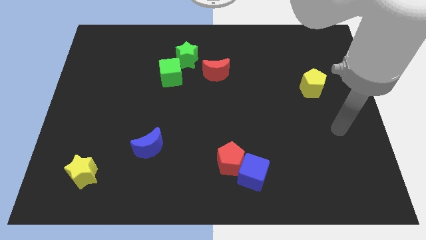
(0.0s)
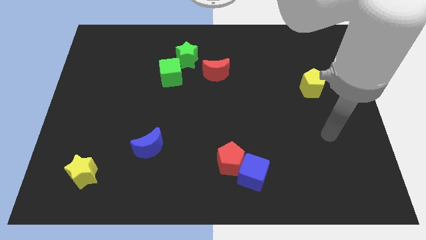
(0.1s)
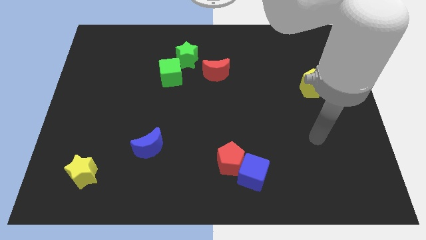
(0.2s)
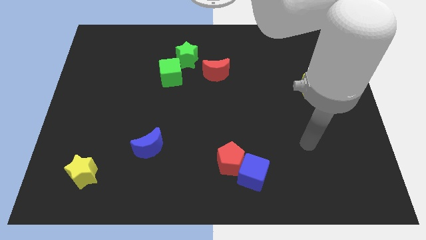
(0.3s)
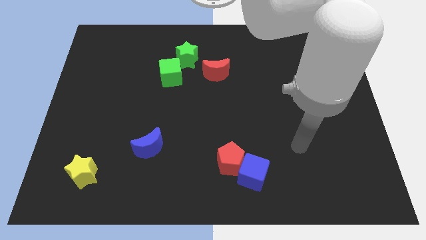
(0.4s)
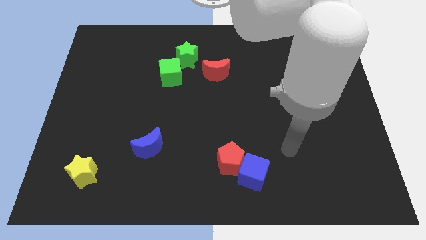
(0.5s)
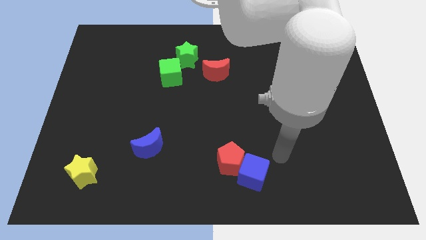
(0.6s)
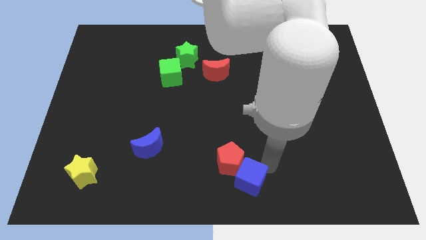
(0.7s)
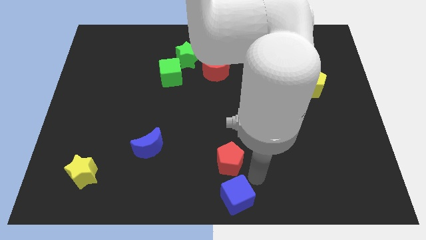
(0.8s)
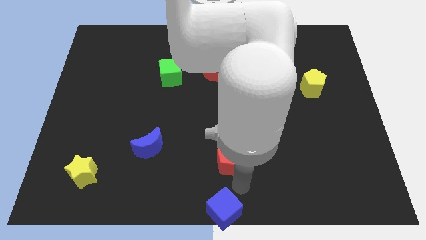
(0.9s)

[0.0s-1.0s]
separate the red pentagon from the blue cube

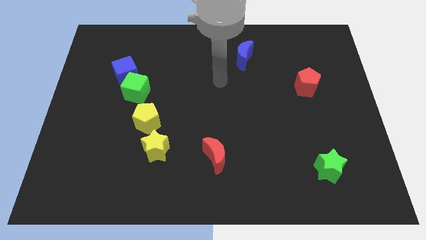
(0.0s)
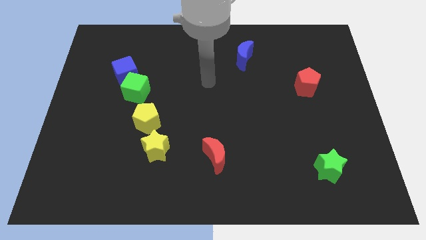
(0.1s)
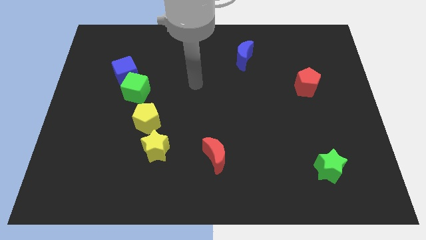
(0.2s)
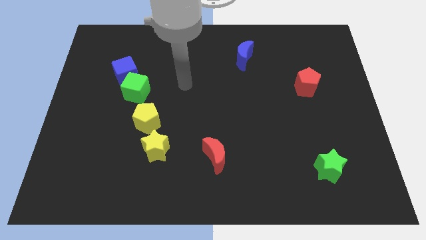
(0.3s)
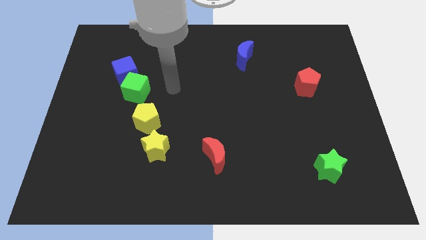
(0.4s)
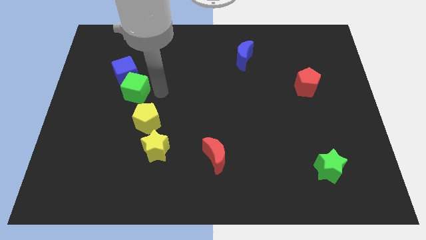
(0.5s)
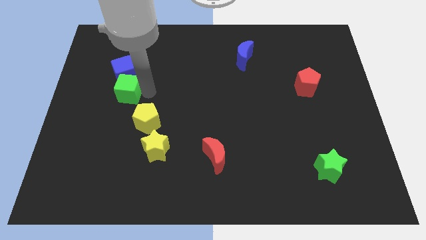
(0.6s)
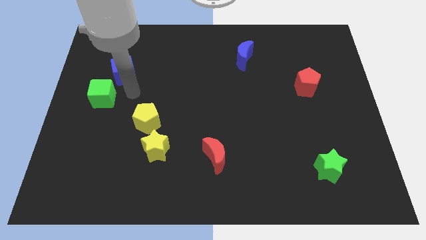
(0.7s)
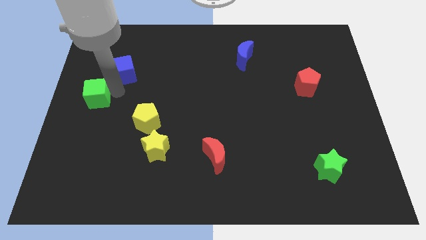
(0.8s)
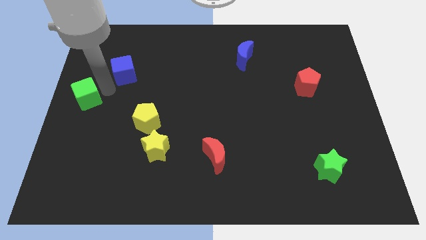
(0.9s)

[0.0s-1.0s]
separate the blue cube from the green cube

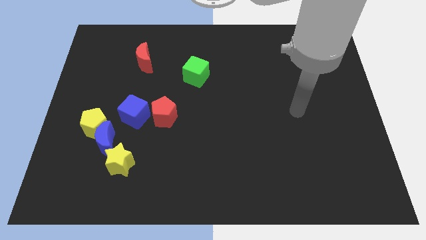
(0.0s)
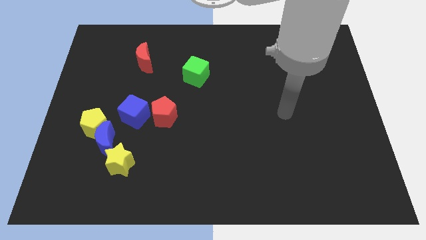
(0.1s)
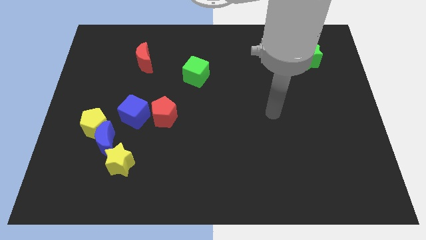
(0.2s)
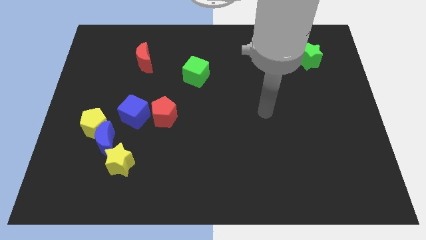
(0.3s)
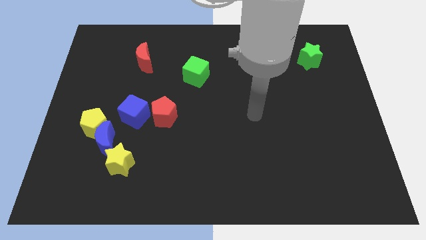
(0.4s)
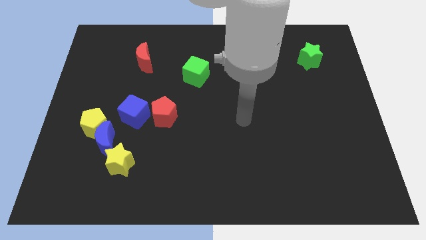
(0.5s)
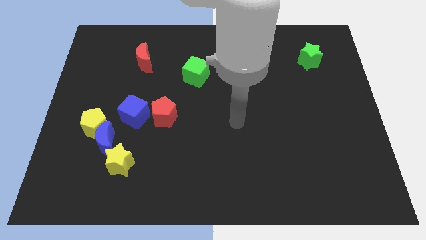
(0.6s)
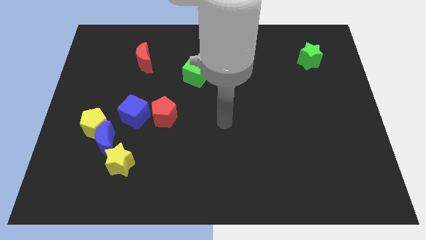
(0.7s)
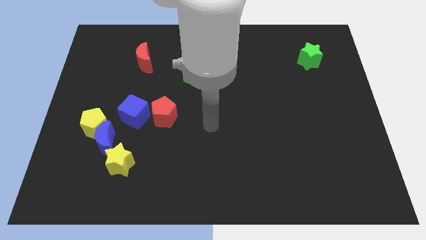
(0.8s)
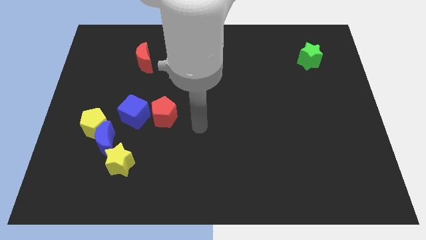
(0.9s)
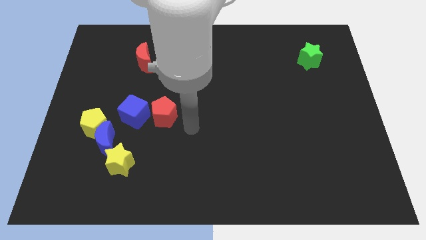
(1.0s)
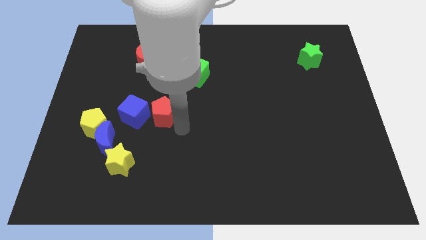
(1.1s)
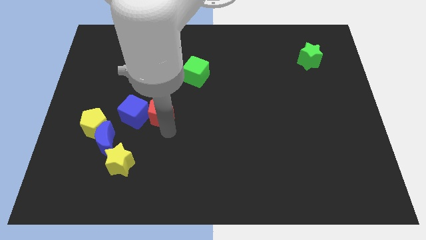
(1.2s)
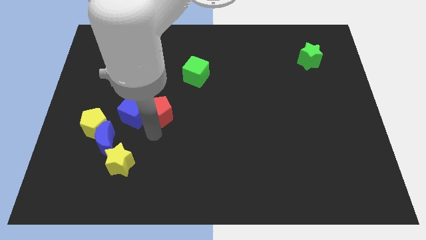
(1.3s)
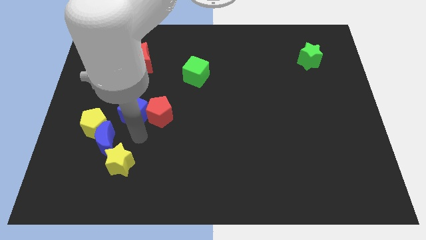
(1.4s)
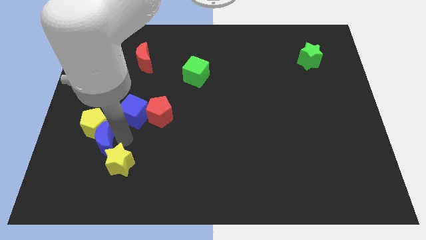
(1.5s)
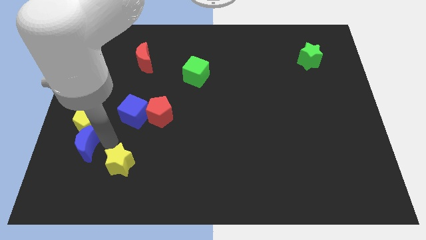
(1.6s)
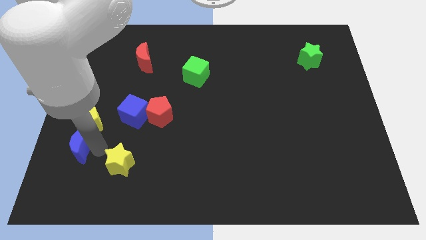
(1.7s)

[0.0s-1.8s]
move the yellow star away from the blue moon

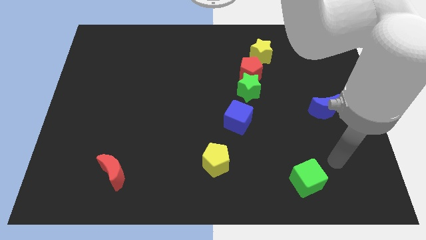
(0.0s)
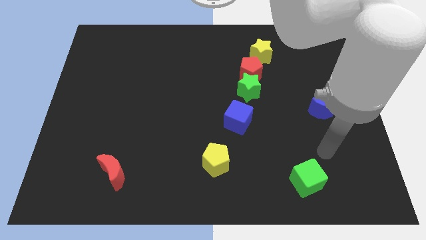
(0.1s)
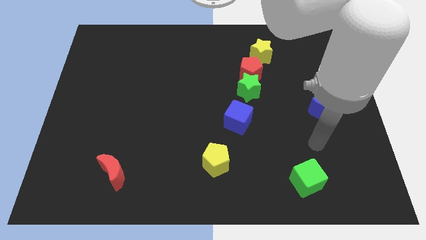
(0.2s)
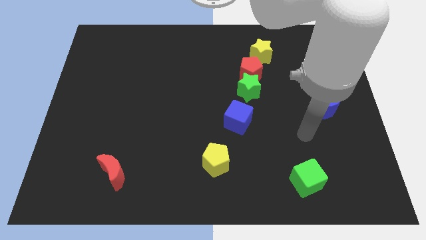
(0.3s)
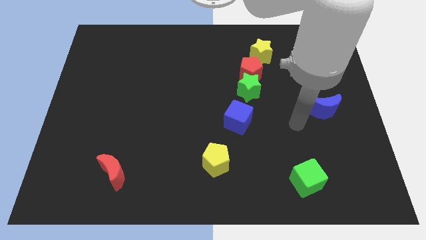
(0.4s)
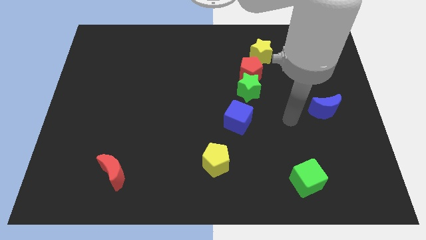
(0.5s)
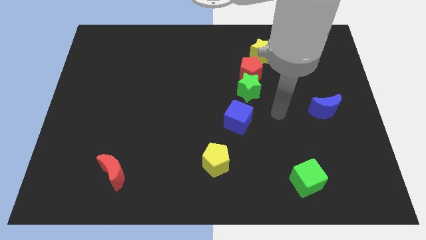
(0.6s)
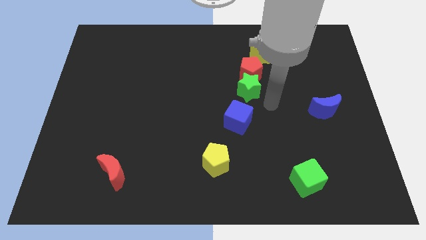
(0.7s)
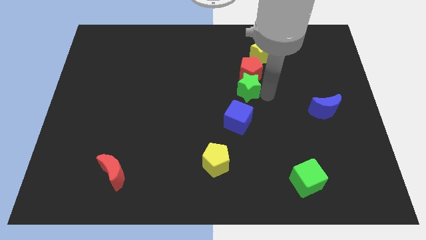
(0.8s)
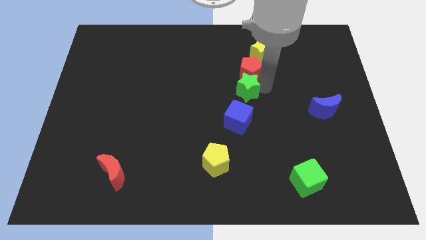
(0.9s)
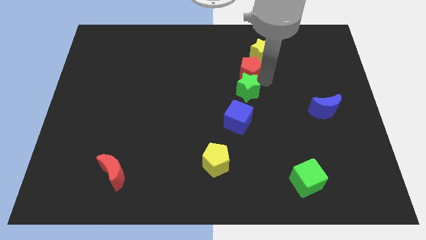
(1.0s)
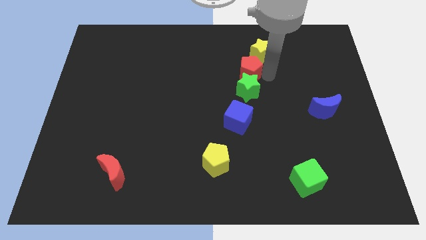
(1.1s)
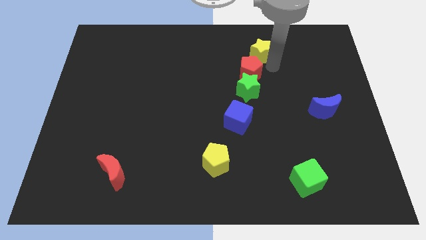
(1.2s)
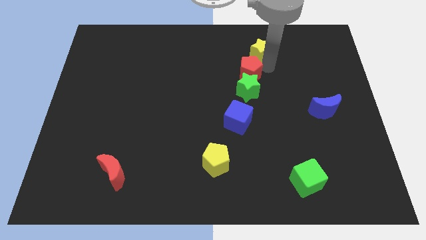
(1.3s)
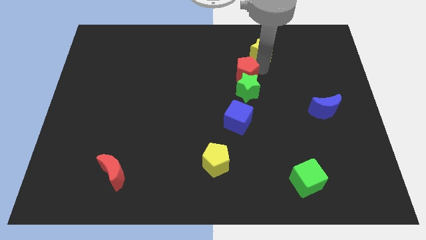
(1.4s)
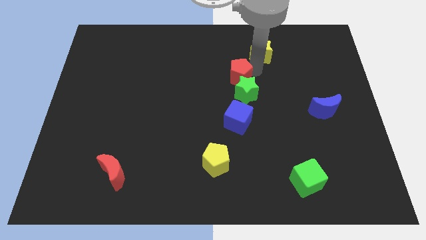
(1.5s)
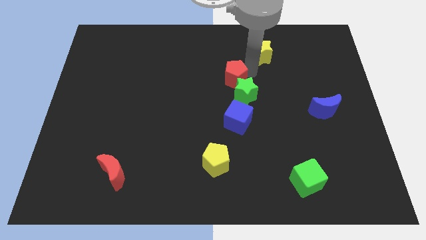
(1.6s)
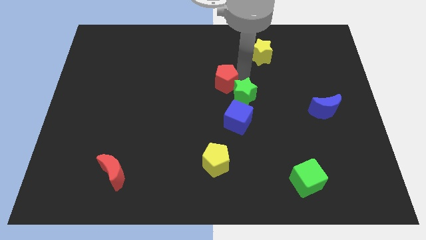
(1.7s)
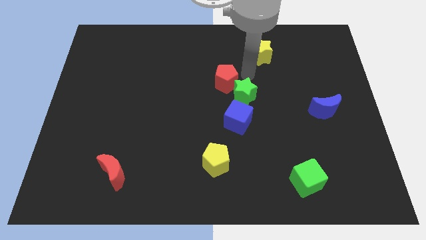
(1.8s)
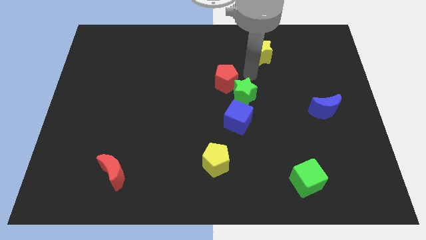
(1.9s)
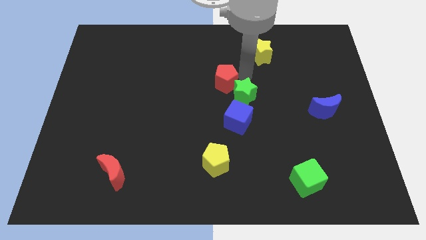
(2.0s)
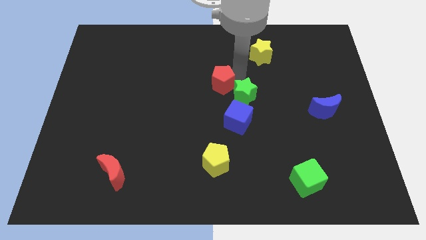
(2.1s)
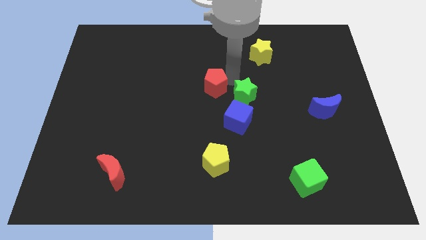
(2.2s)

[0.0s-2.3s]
move the red pentagon away from the green star and yellow star

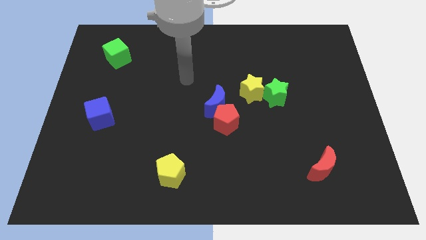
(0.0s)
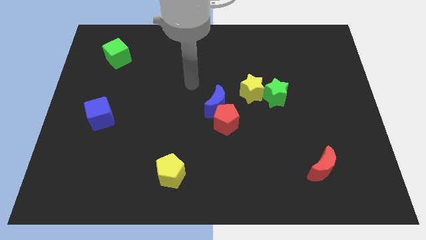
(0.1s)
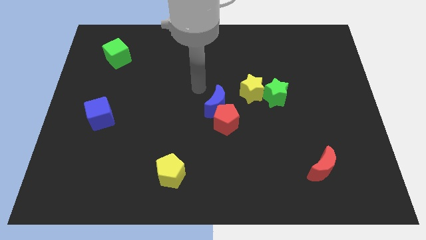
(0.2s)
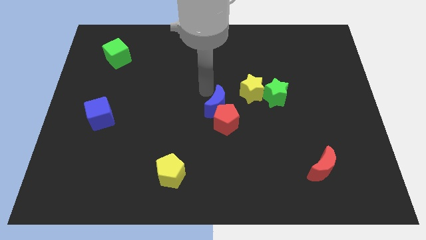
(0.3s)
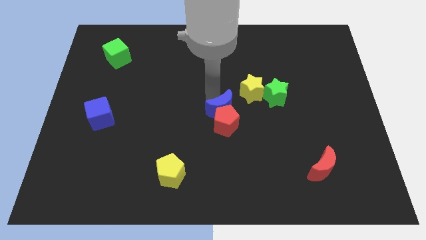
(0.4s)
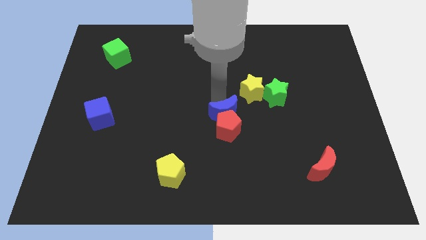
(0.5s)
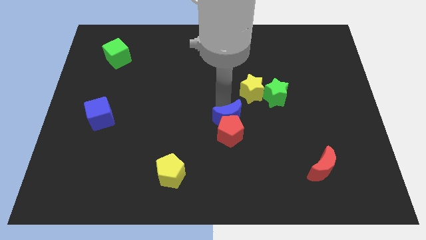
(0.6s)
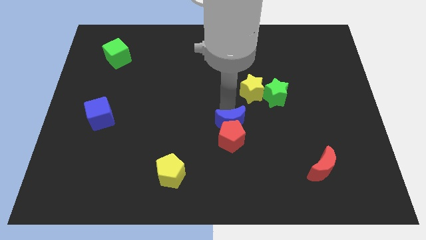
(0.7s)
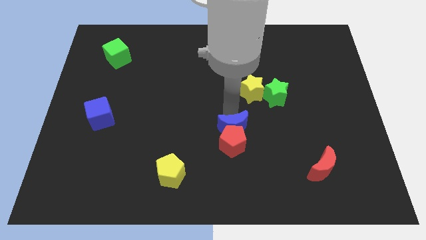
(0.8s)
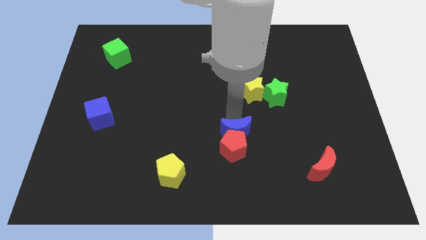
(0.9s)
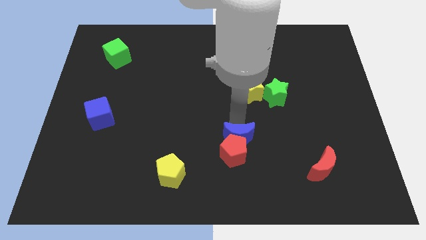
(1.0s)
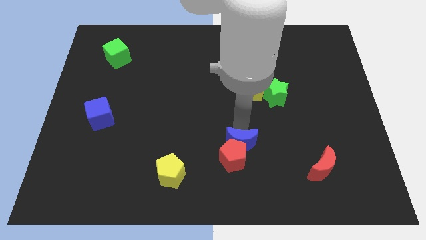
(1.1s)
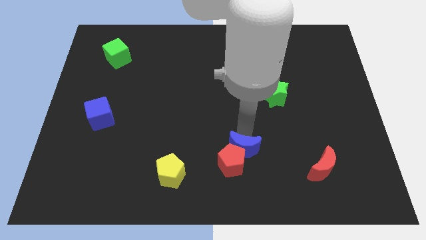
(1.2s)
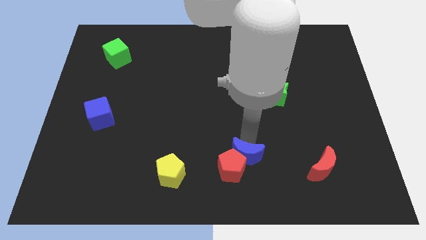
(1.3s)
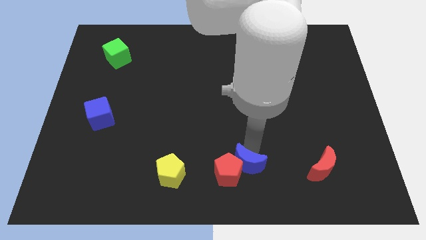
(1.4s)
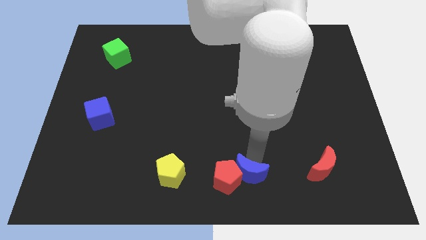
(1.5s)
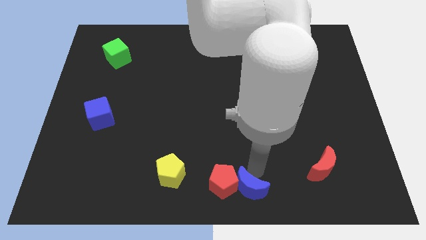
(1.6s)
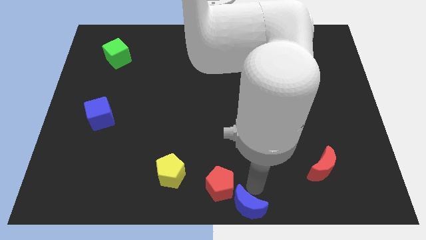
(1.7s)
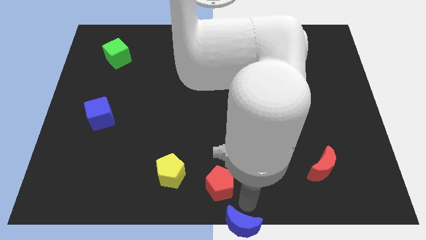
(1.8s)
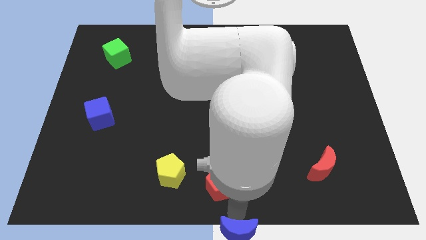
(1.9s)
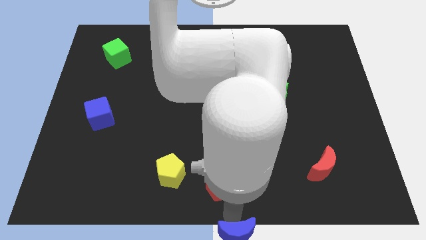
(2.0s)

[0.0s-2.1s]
move the red pentagon away from the blue moon

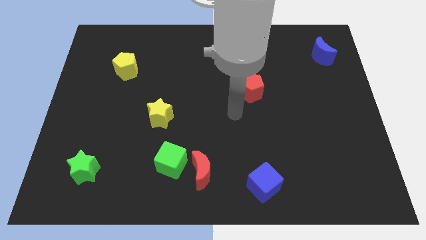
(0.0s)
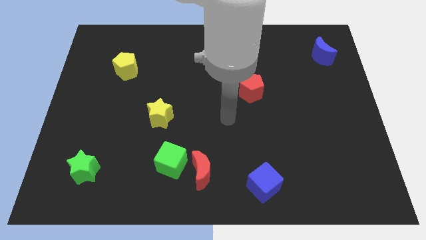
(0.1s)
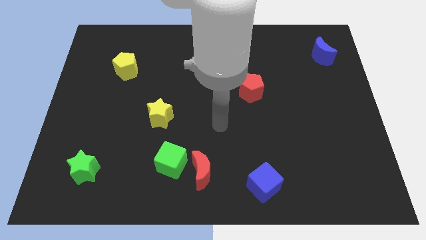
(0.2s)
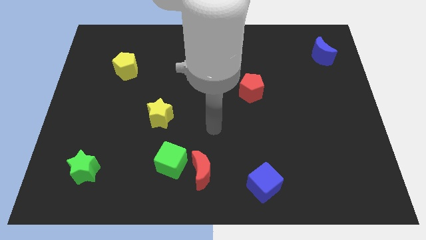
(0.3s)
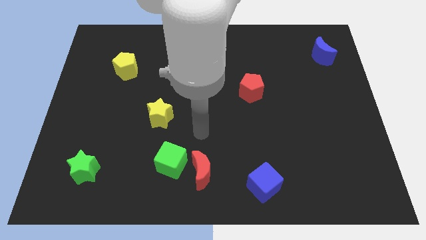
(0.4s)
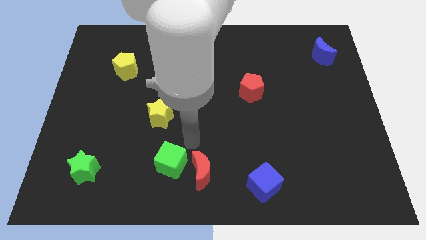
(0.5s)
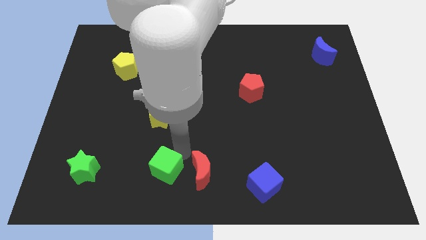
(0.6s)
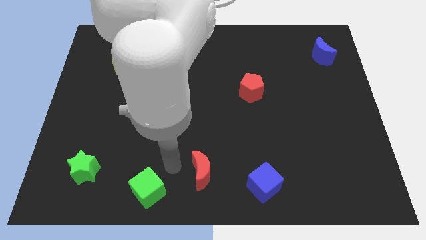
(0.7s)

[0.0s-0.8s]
move the red moon away from the green cube

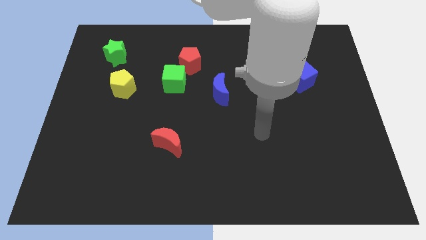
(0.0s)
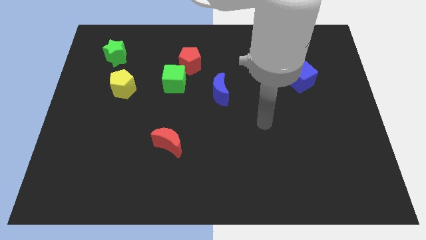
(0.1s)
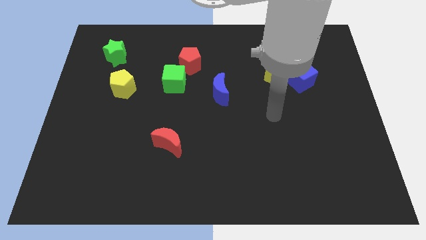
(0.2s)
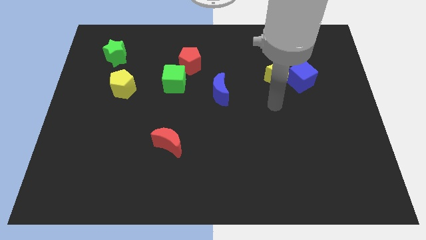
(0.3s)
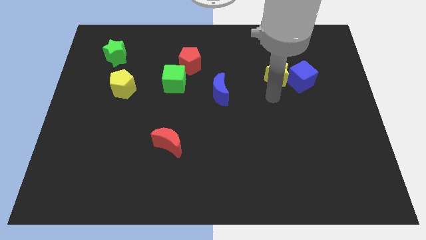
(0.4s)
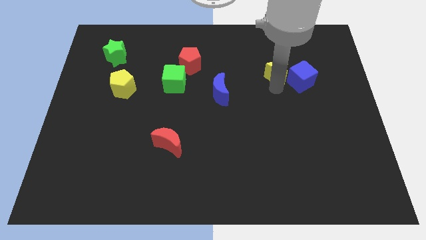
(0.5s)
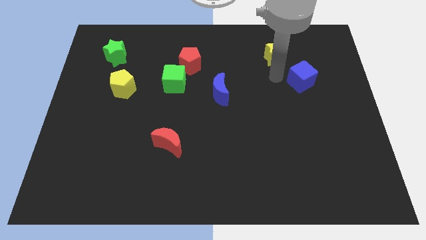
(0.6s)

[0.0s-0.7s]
separate the blue cube from the yellow star
